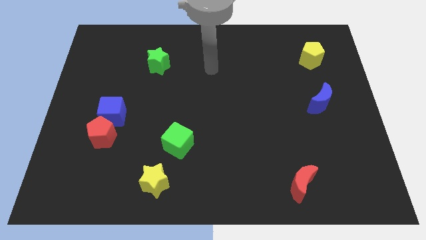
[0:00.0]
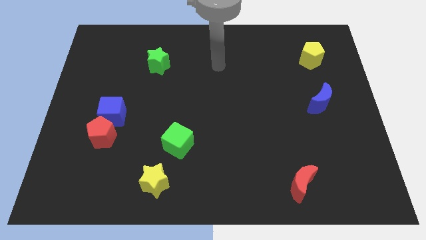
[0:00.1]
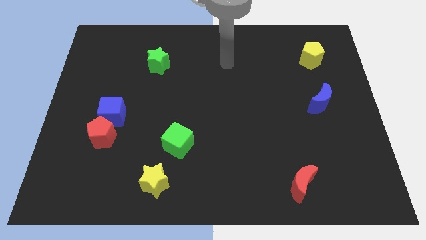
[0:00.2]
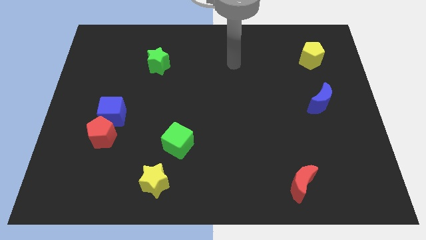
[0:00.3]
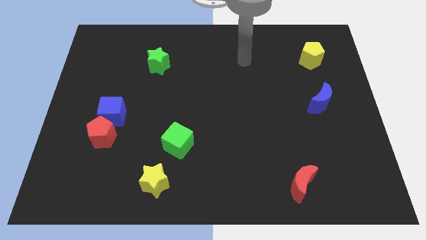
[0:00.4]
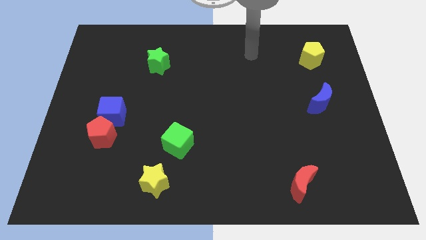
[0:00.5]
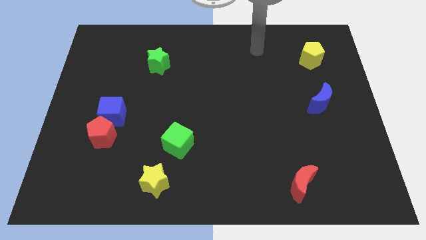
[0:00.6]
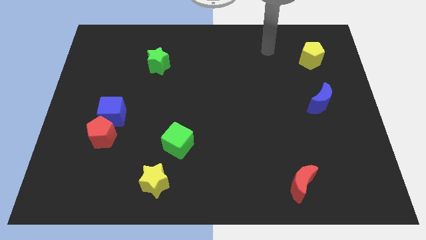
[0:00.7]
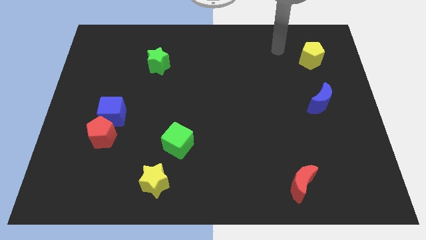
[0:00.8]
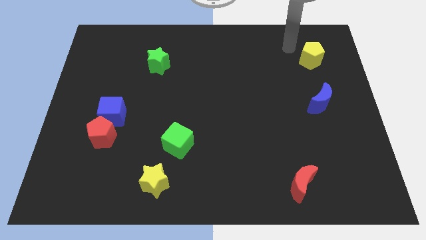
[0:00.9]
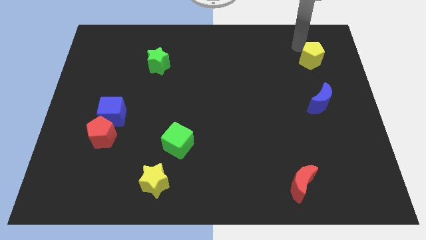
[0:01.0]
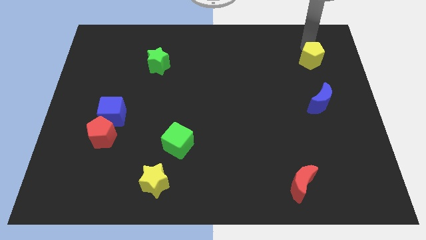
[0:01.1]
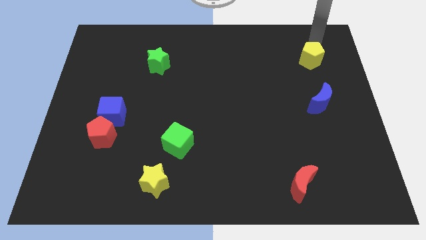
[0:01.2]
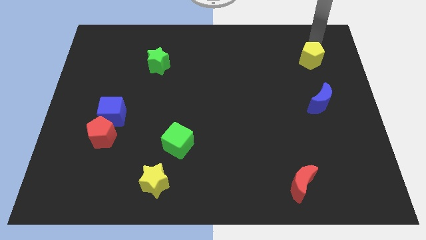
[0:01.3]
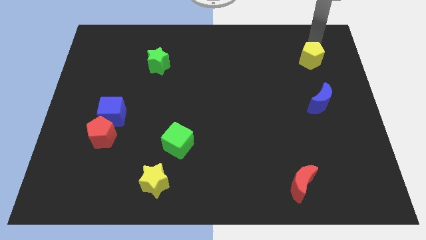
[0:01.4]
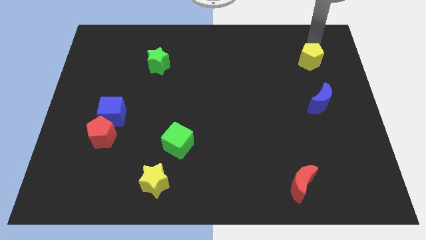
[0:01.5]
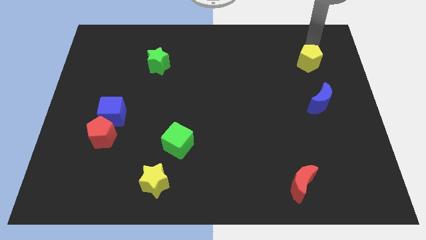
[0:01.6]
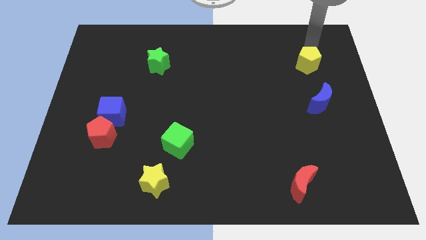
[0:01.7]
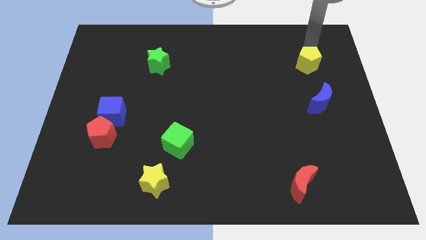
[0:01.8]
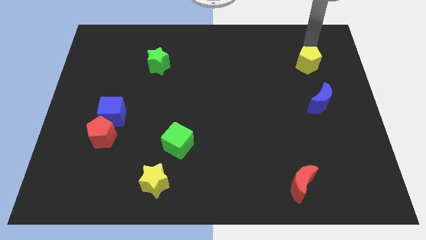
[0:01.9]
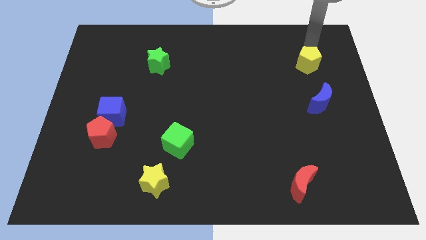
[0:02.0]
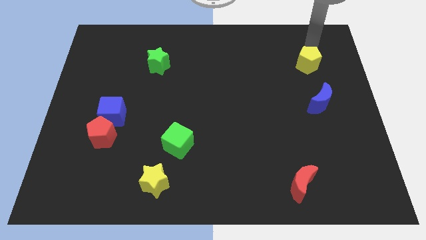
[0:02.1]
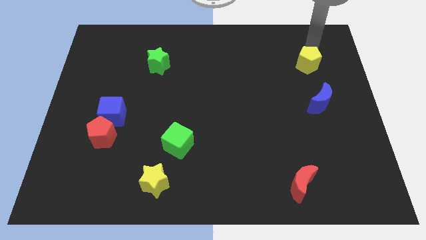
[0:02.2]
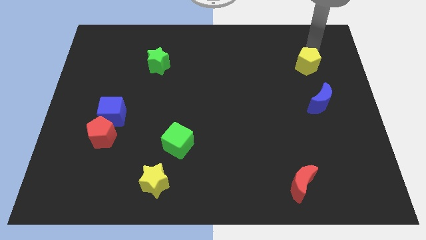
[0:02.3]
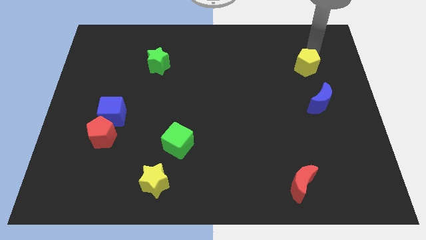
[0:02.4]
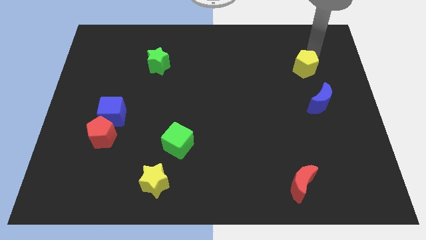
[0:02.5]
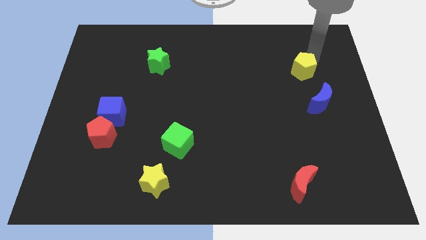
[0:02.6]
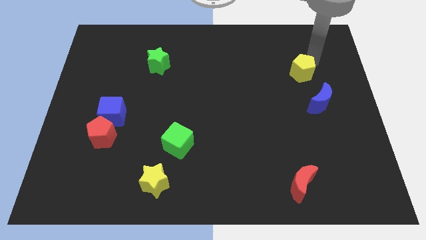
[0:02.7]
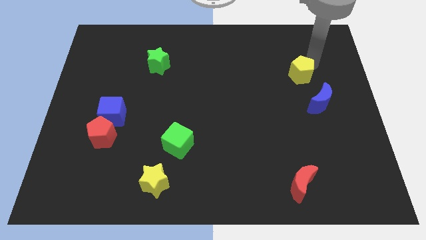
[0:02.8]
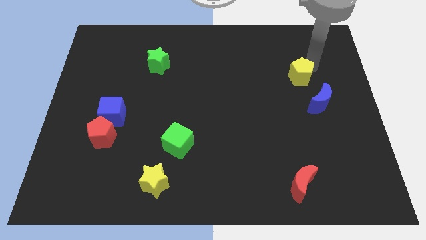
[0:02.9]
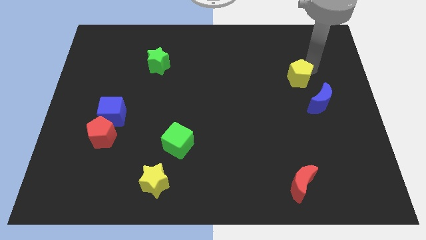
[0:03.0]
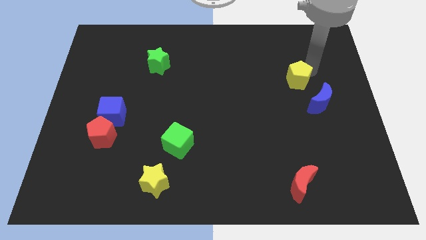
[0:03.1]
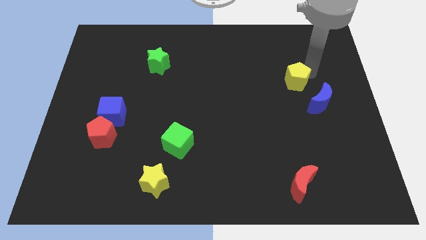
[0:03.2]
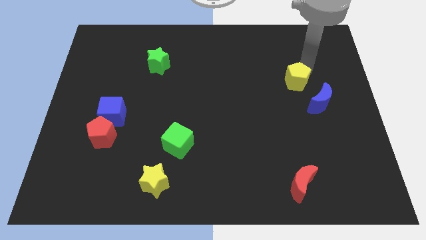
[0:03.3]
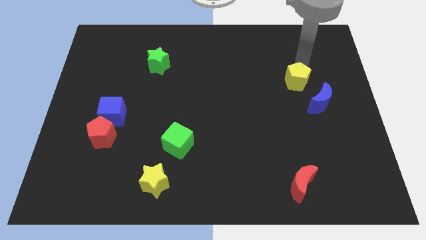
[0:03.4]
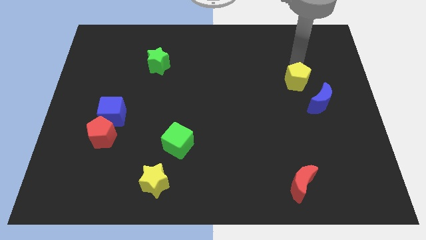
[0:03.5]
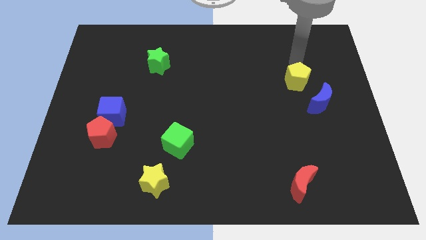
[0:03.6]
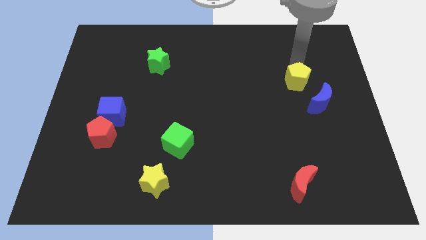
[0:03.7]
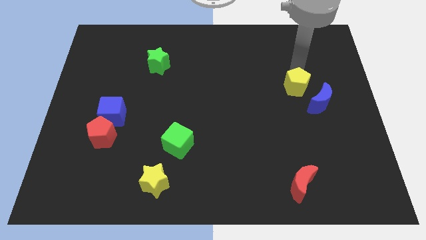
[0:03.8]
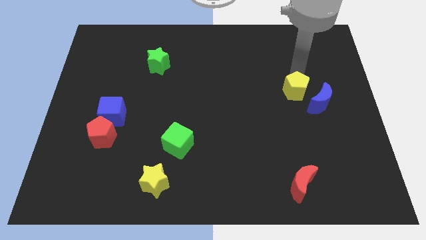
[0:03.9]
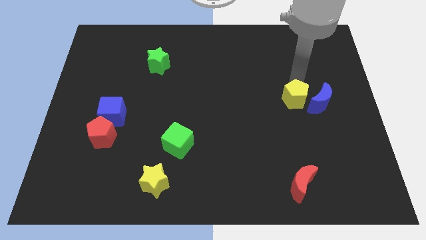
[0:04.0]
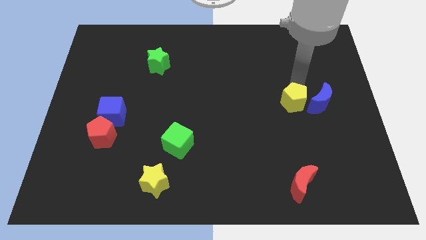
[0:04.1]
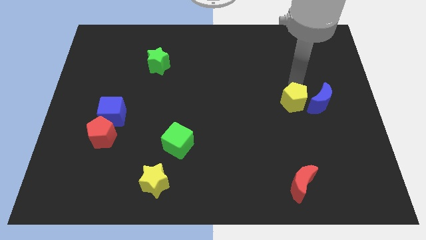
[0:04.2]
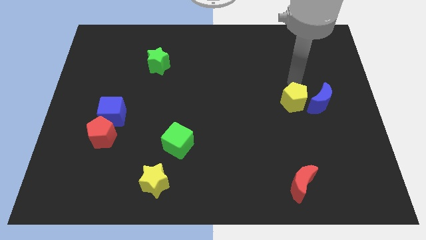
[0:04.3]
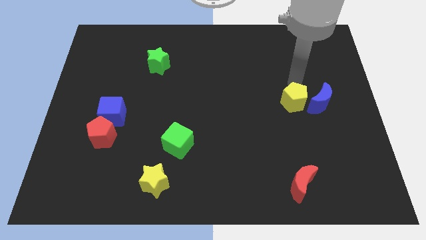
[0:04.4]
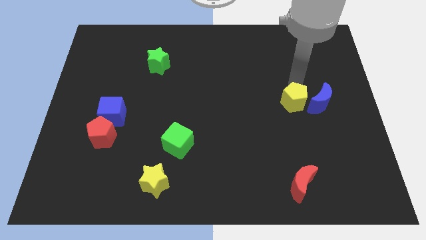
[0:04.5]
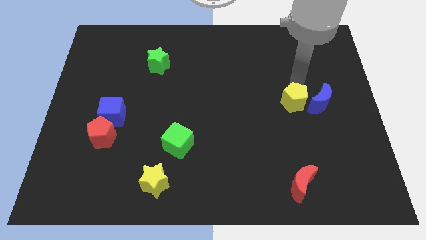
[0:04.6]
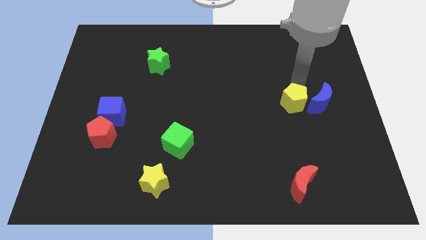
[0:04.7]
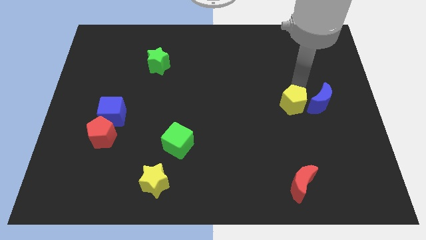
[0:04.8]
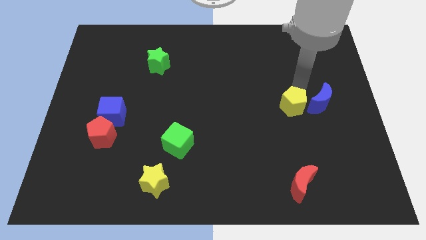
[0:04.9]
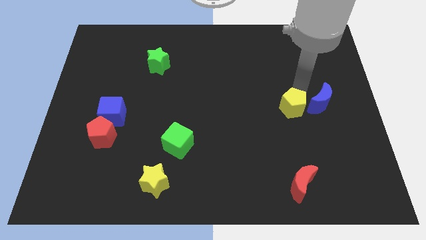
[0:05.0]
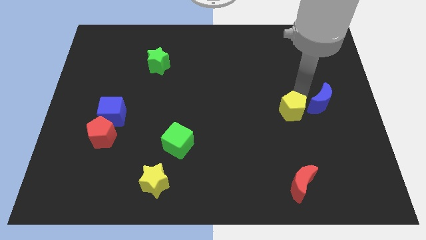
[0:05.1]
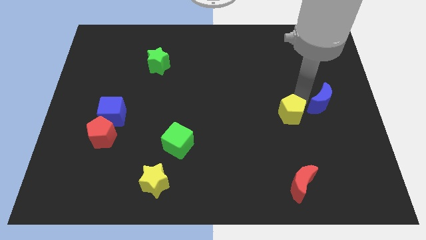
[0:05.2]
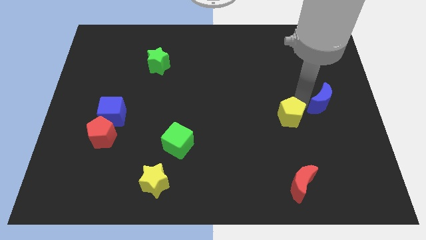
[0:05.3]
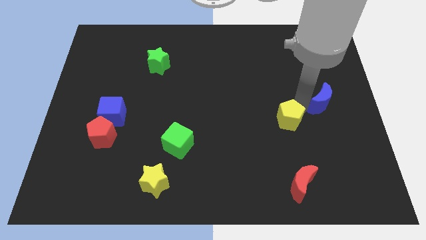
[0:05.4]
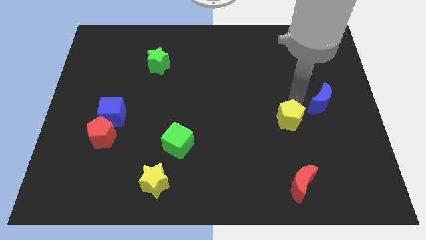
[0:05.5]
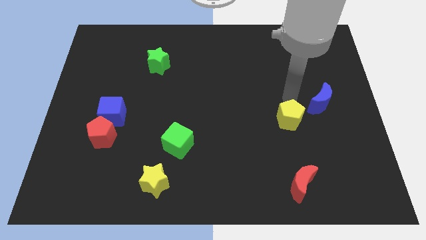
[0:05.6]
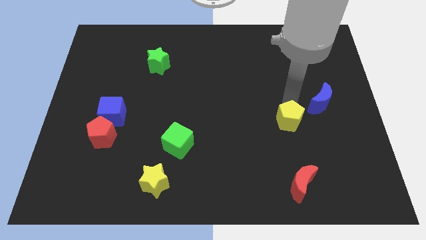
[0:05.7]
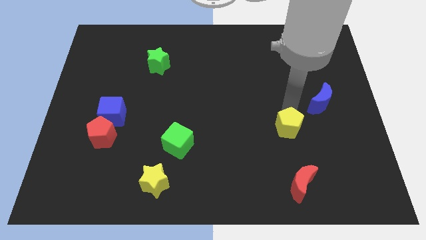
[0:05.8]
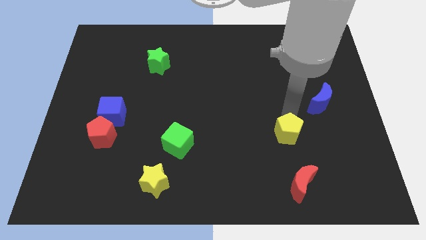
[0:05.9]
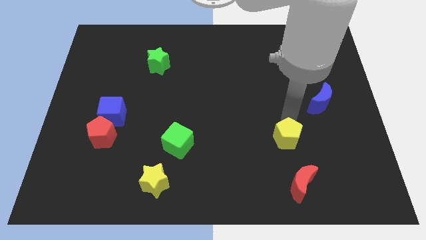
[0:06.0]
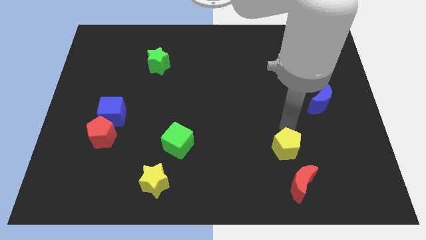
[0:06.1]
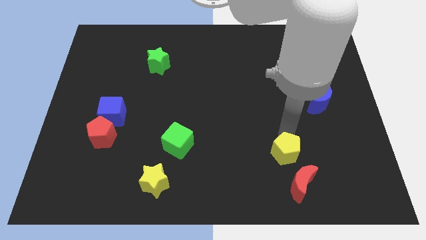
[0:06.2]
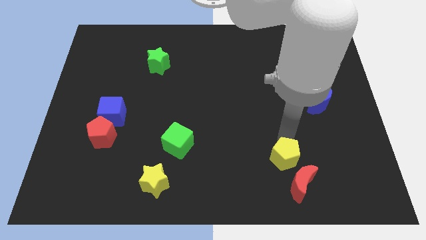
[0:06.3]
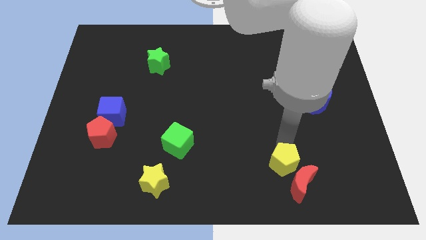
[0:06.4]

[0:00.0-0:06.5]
put the yellow pentagon close to the red moon

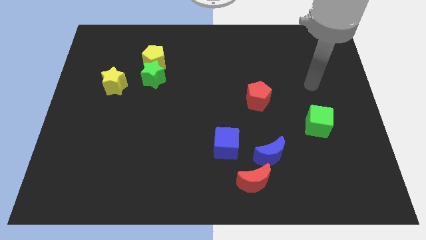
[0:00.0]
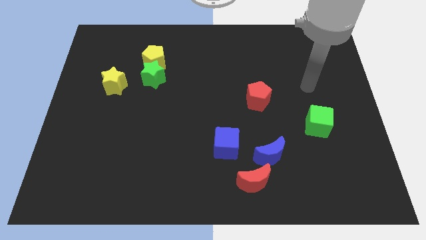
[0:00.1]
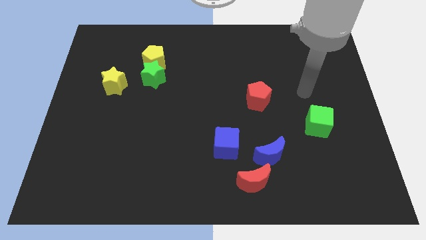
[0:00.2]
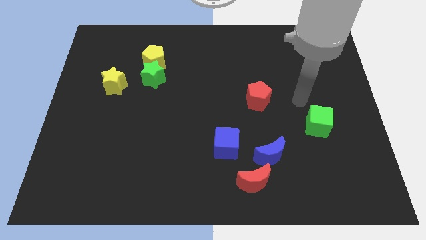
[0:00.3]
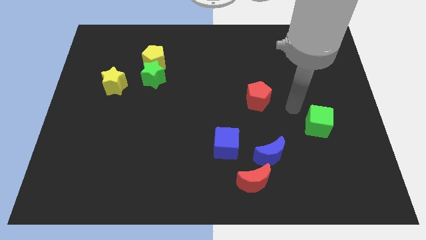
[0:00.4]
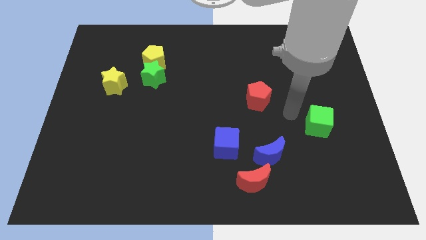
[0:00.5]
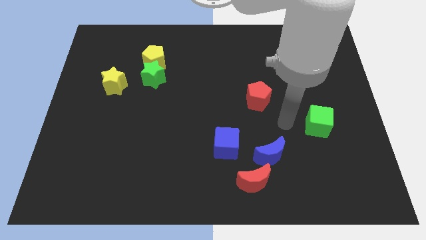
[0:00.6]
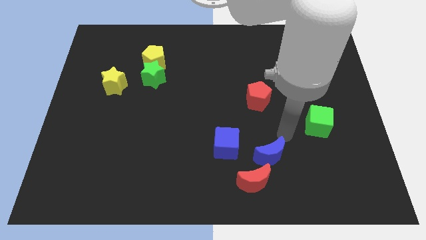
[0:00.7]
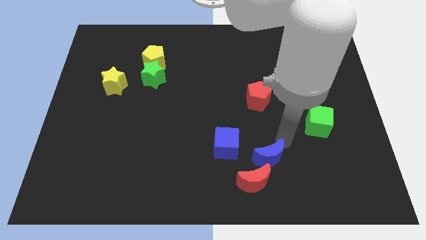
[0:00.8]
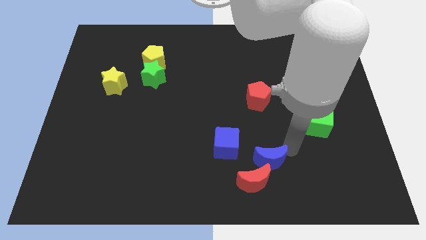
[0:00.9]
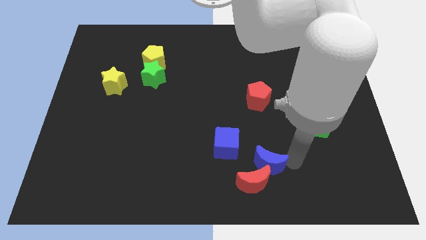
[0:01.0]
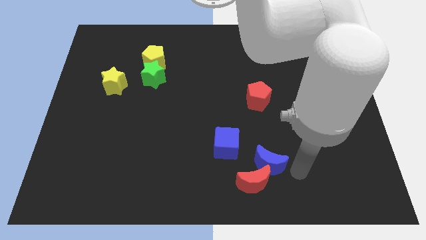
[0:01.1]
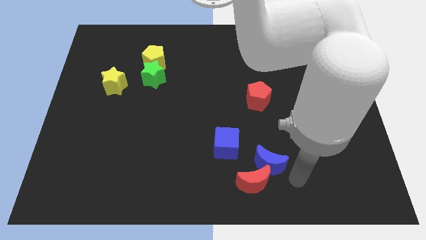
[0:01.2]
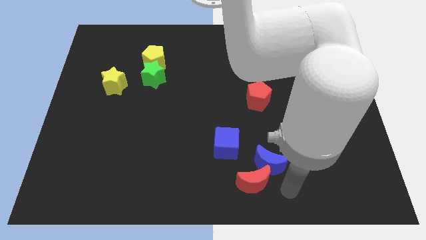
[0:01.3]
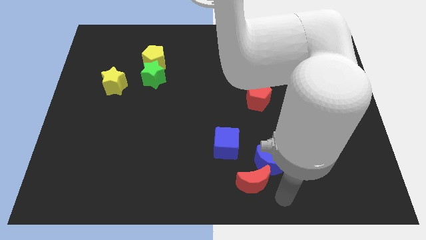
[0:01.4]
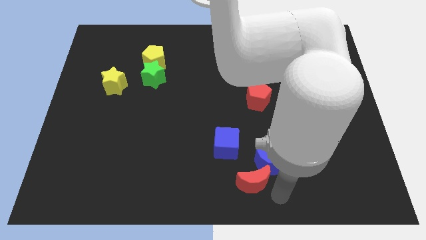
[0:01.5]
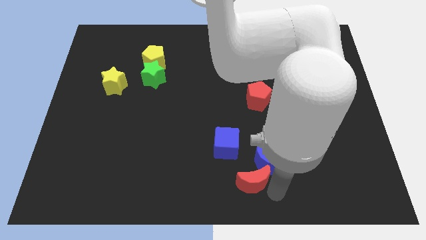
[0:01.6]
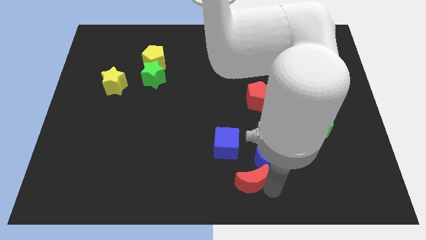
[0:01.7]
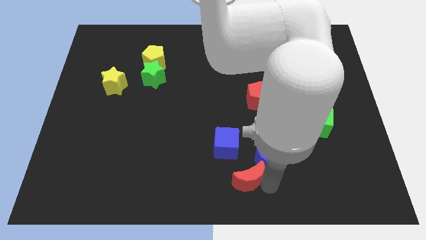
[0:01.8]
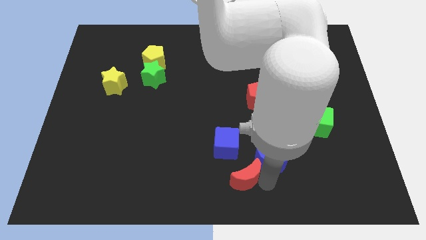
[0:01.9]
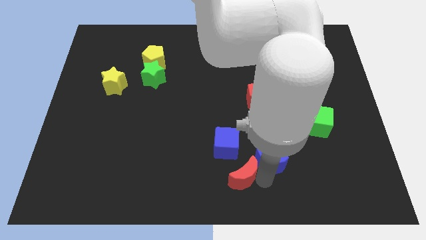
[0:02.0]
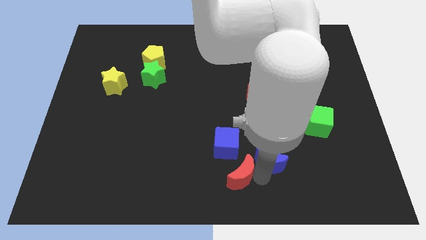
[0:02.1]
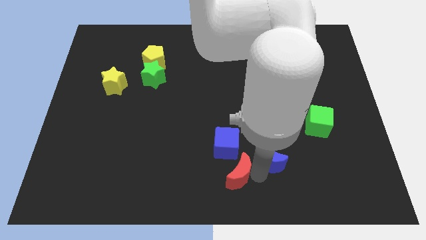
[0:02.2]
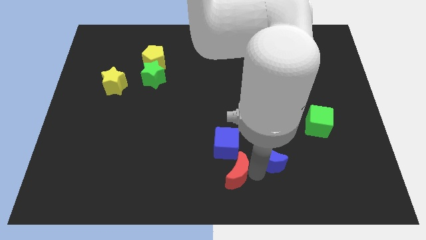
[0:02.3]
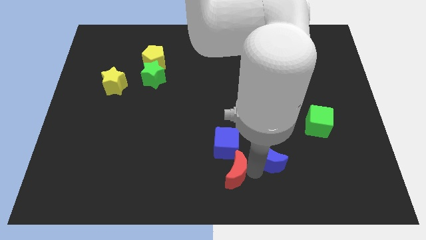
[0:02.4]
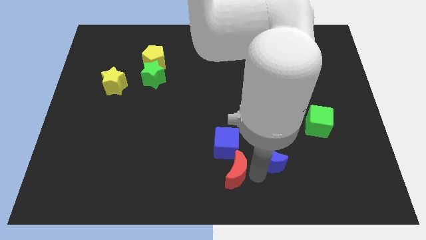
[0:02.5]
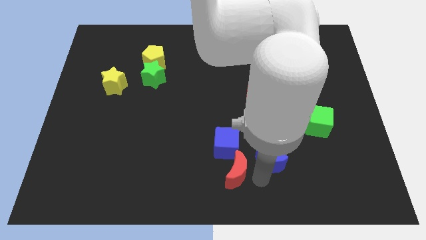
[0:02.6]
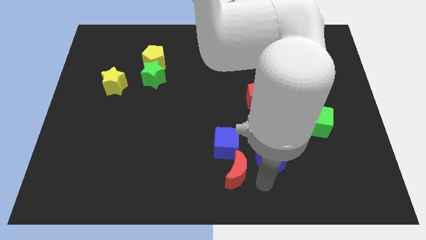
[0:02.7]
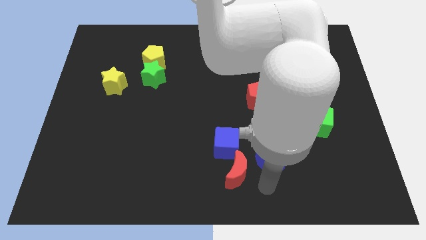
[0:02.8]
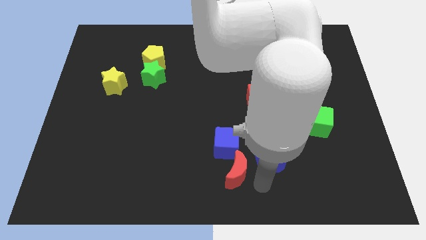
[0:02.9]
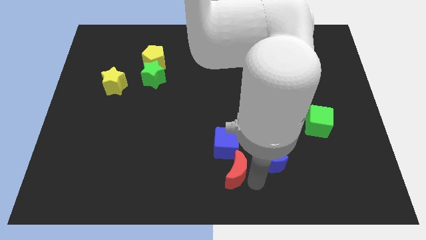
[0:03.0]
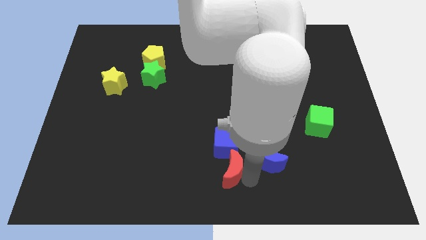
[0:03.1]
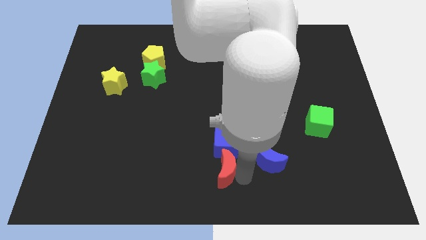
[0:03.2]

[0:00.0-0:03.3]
put the red moon close to the blue cube
